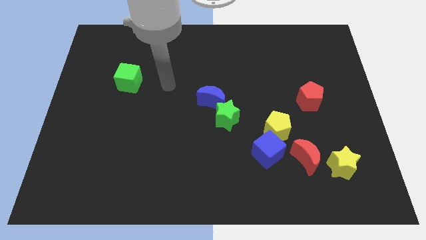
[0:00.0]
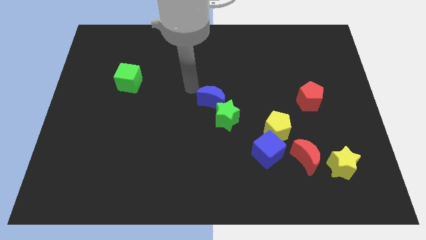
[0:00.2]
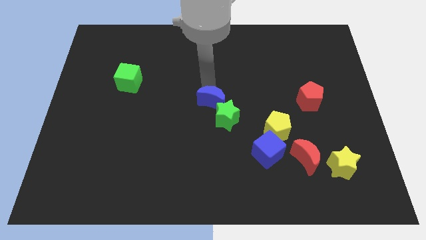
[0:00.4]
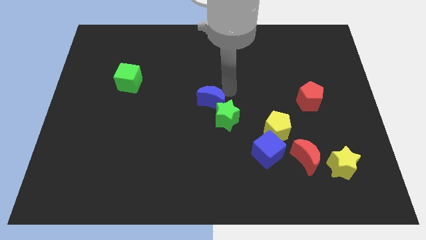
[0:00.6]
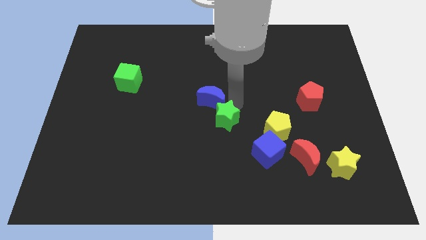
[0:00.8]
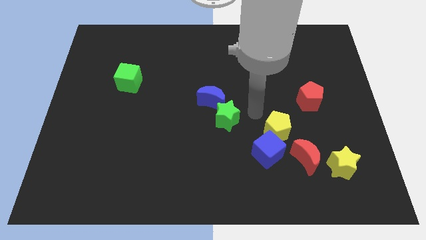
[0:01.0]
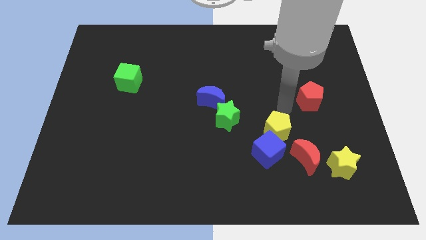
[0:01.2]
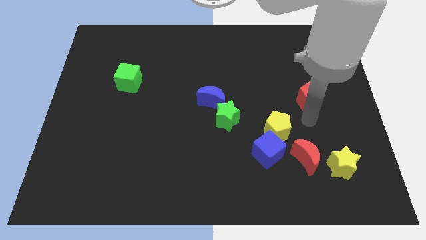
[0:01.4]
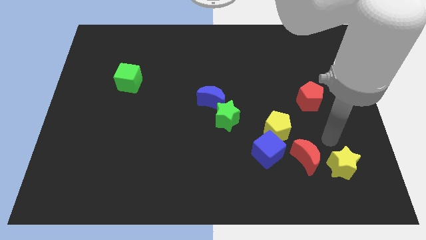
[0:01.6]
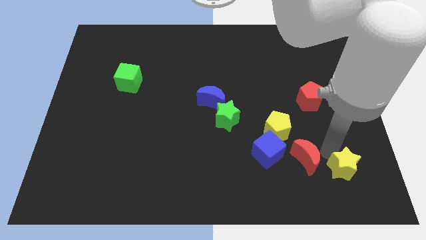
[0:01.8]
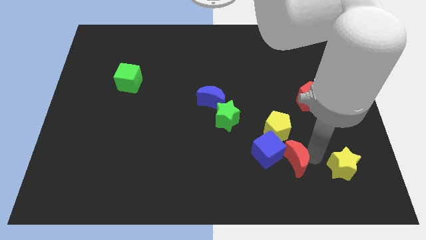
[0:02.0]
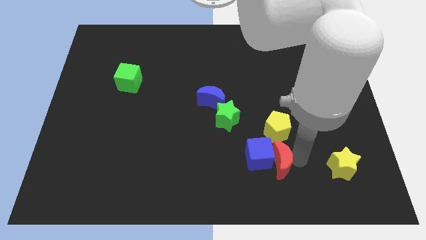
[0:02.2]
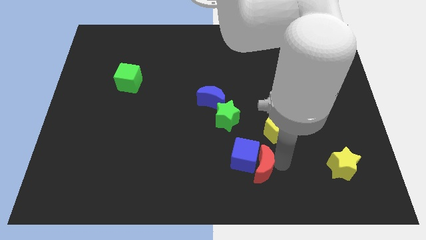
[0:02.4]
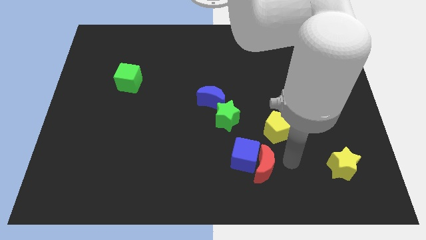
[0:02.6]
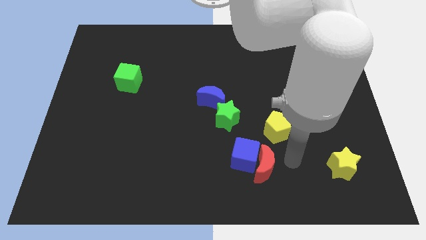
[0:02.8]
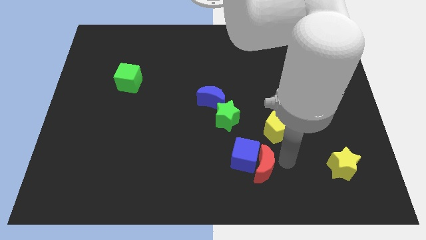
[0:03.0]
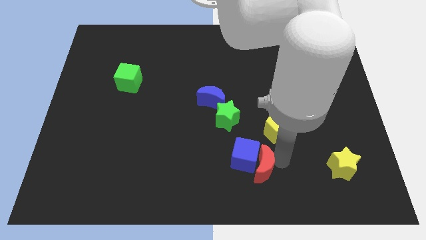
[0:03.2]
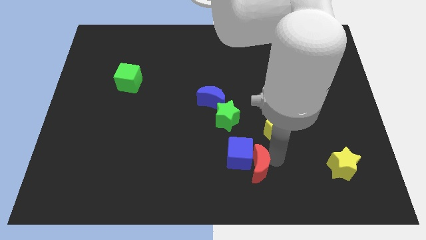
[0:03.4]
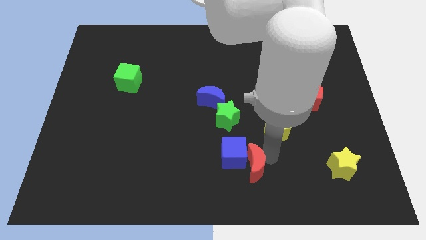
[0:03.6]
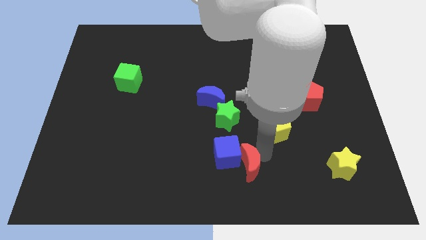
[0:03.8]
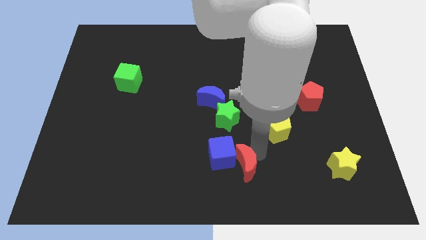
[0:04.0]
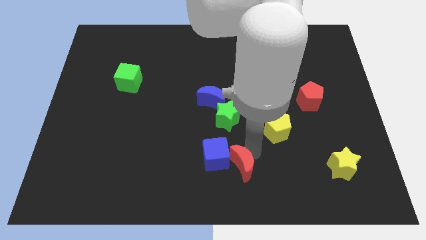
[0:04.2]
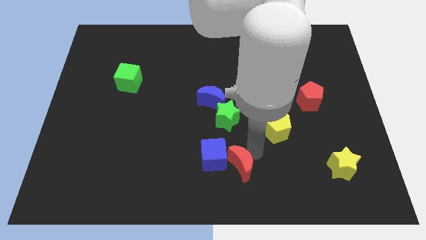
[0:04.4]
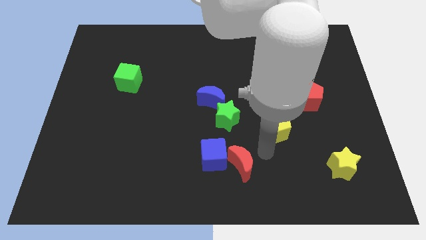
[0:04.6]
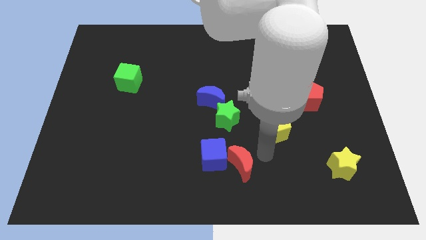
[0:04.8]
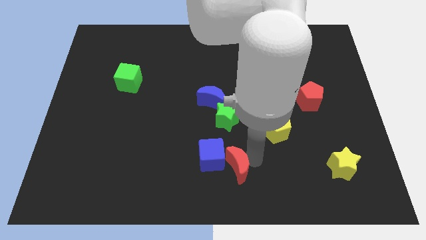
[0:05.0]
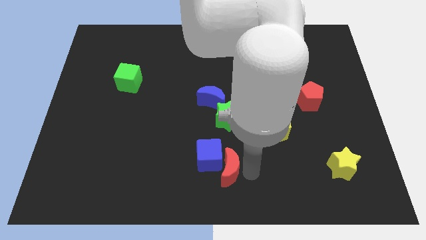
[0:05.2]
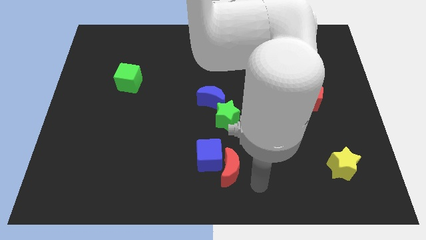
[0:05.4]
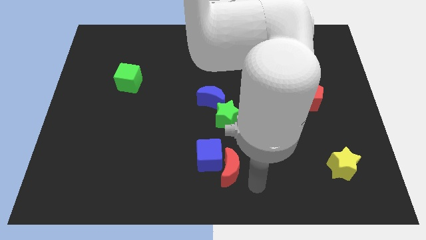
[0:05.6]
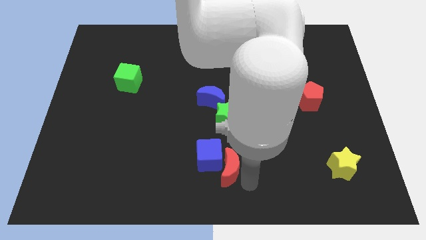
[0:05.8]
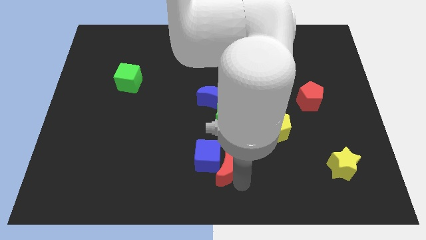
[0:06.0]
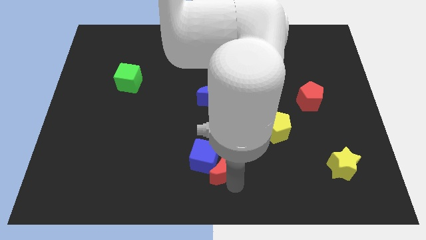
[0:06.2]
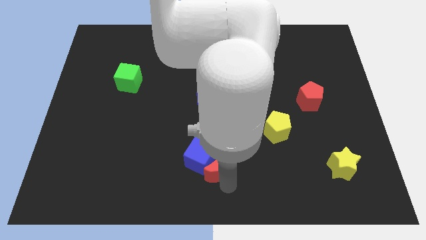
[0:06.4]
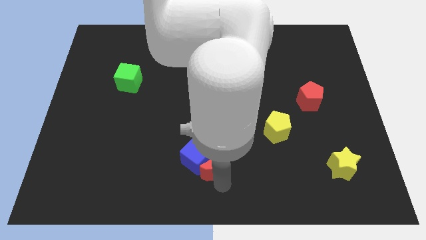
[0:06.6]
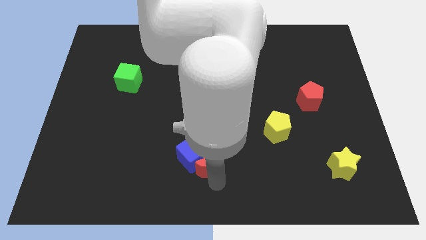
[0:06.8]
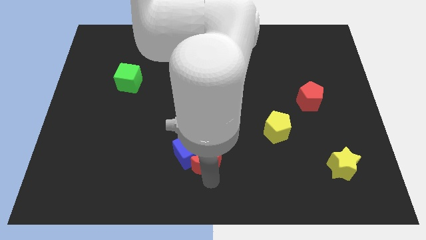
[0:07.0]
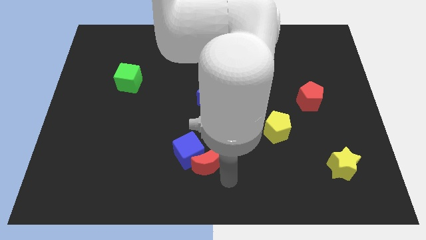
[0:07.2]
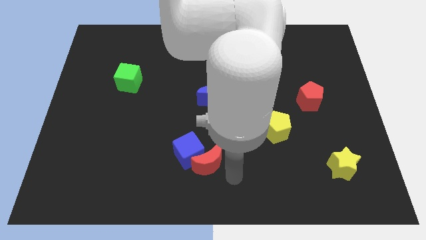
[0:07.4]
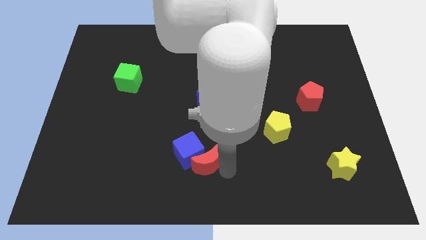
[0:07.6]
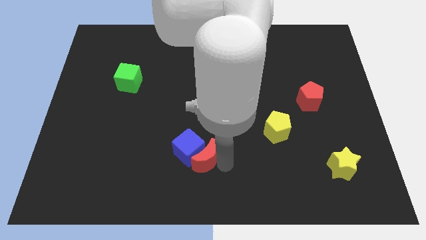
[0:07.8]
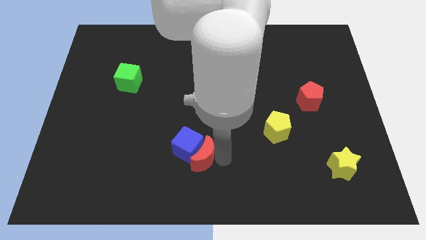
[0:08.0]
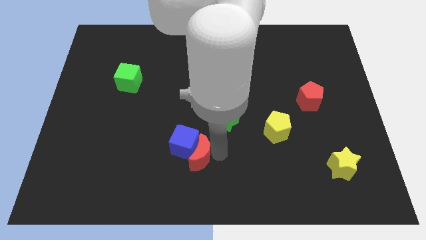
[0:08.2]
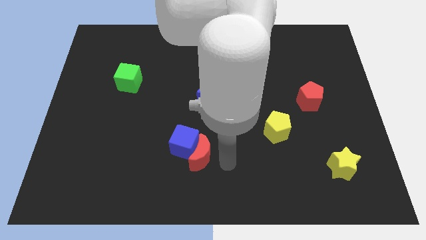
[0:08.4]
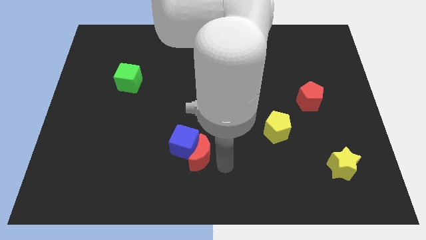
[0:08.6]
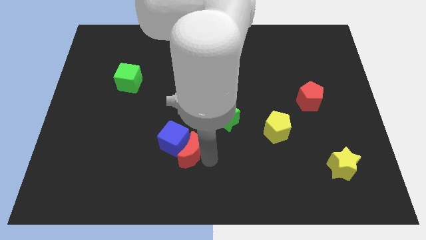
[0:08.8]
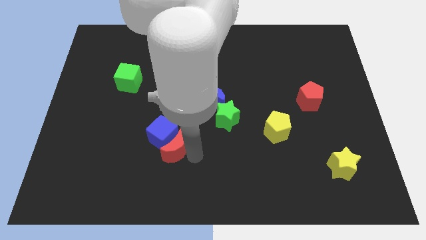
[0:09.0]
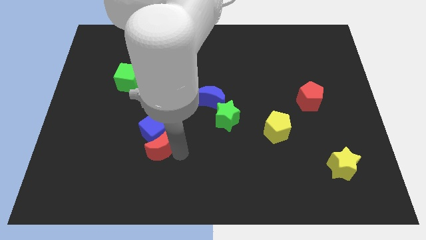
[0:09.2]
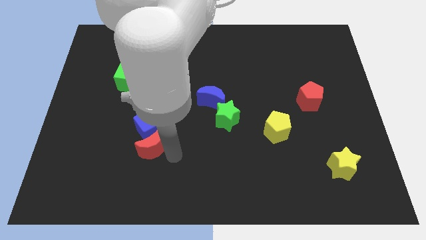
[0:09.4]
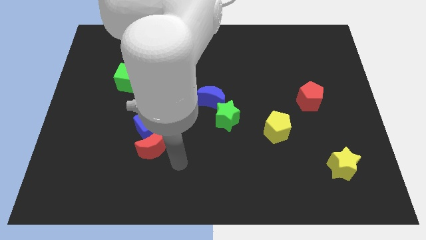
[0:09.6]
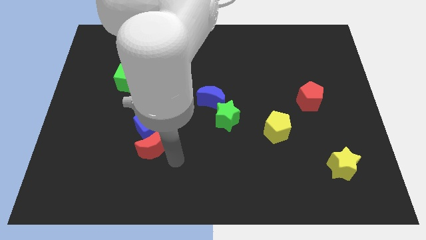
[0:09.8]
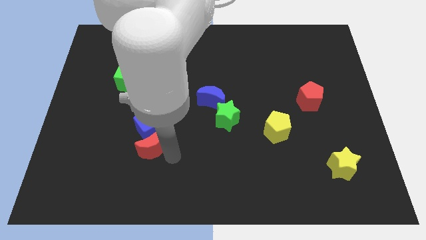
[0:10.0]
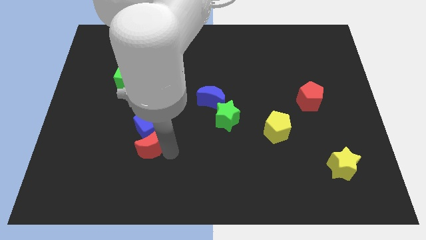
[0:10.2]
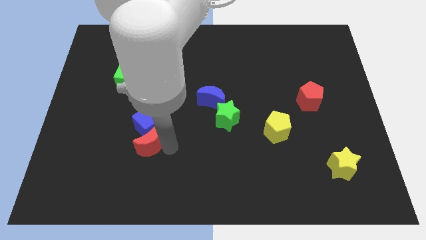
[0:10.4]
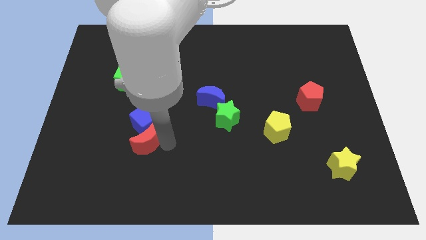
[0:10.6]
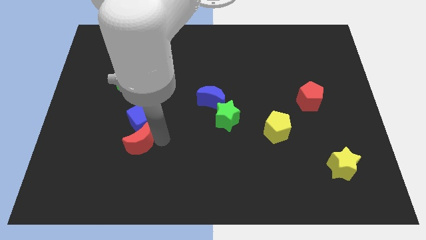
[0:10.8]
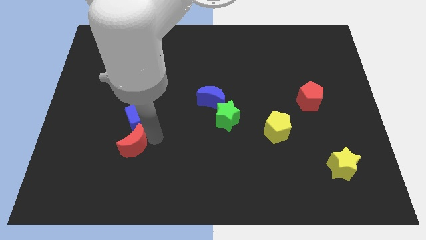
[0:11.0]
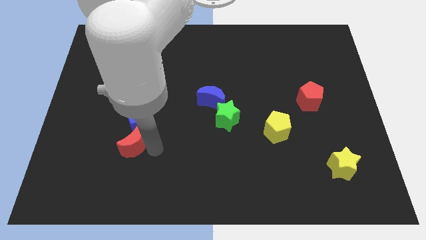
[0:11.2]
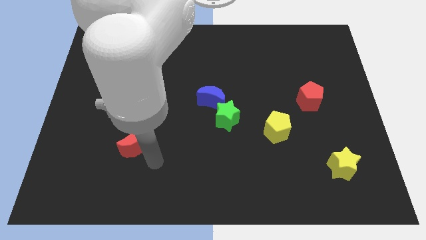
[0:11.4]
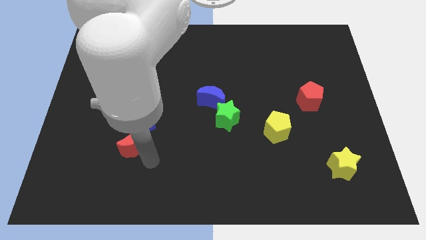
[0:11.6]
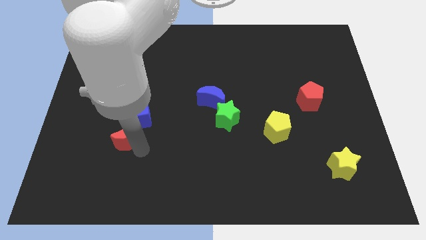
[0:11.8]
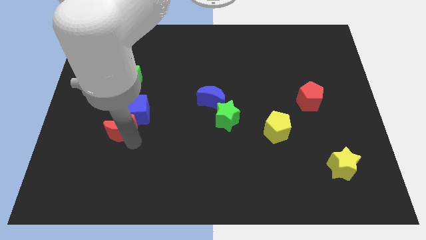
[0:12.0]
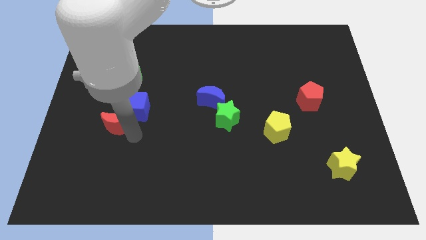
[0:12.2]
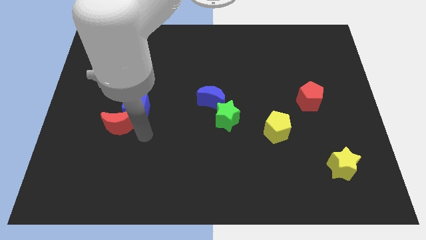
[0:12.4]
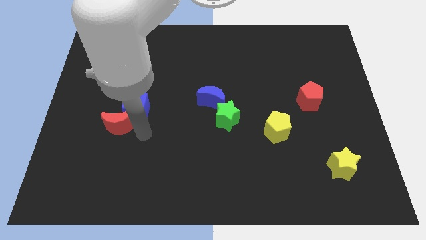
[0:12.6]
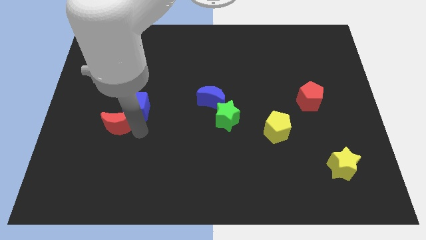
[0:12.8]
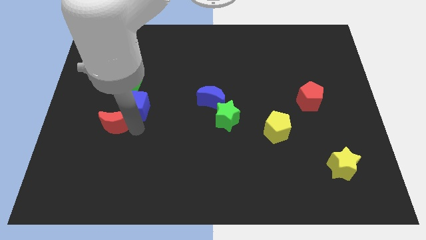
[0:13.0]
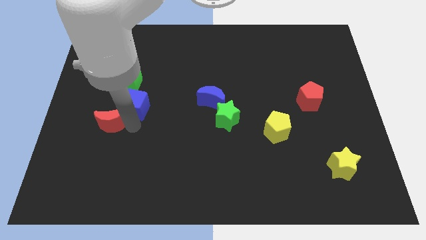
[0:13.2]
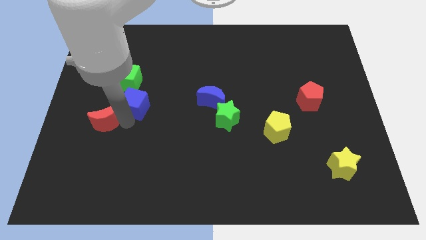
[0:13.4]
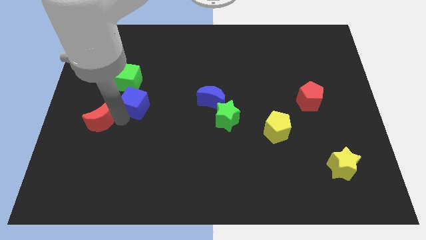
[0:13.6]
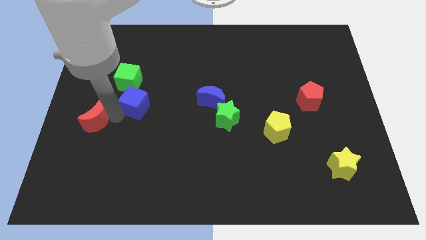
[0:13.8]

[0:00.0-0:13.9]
put the red moon to the left side of the board
